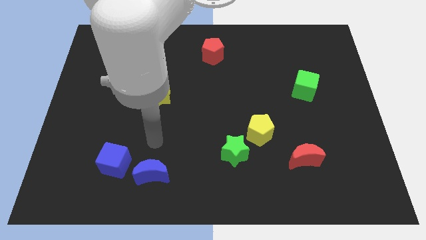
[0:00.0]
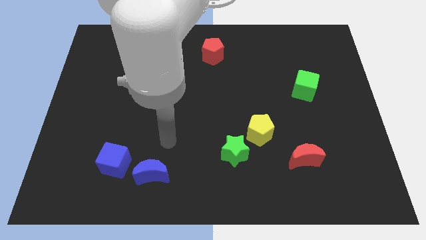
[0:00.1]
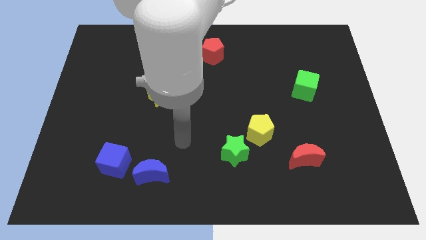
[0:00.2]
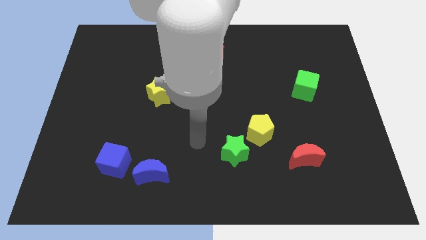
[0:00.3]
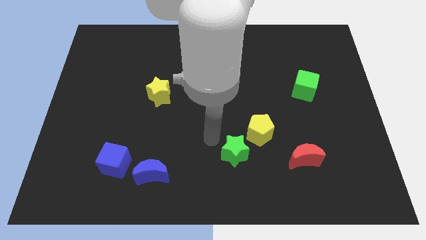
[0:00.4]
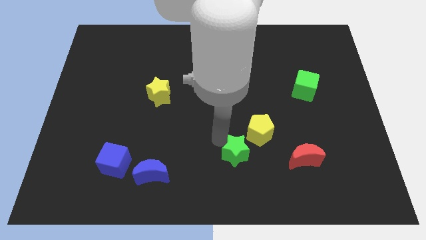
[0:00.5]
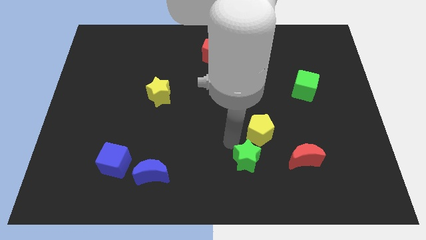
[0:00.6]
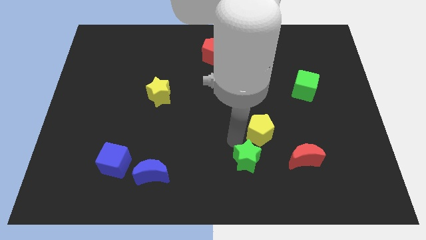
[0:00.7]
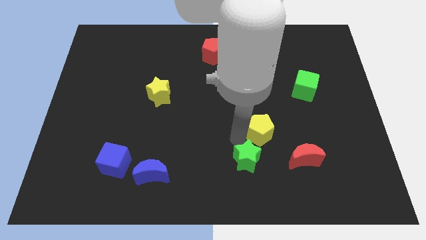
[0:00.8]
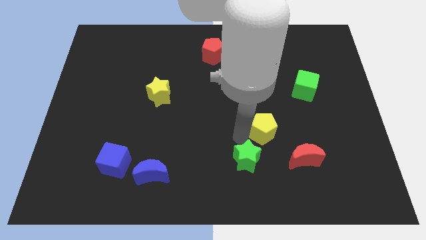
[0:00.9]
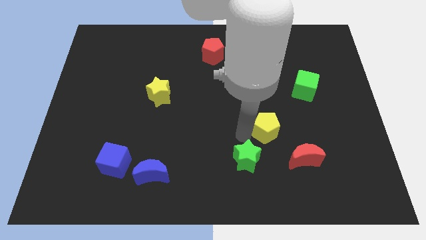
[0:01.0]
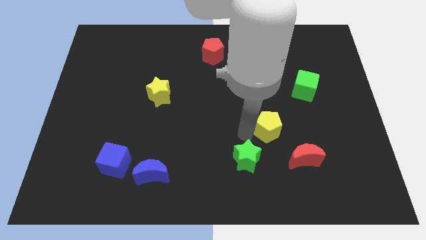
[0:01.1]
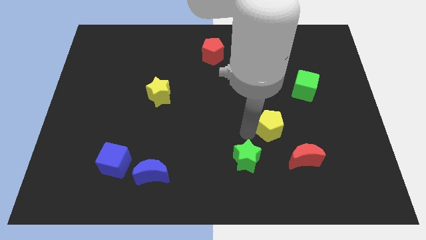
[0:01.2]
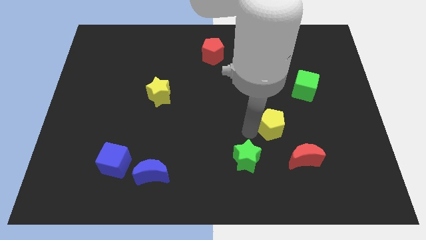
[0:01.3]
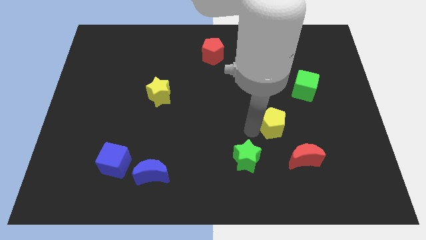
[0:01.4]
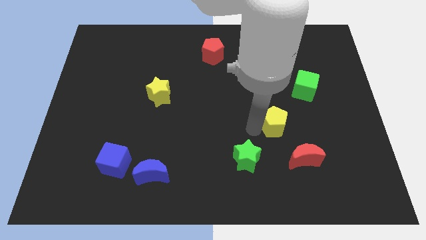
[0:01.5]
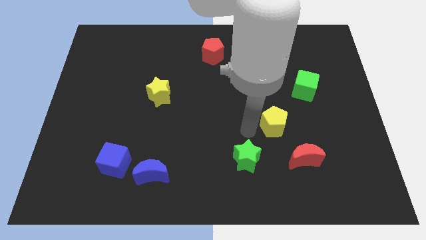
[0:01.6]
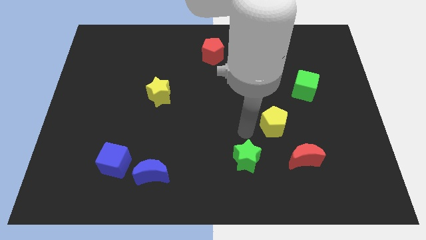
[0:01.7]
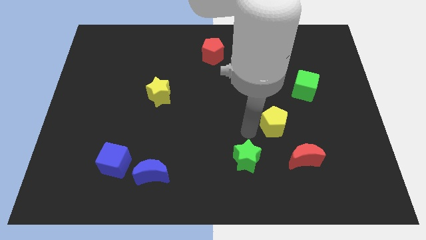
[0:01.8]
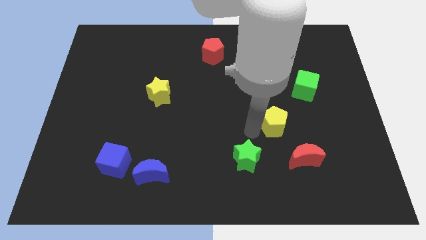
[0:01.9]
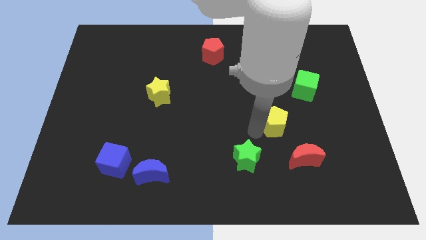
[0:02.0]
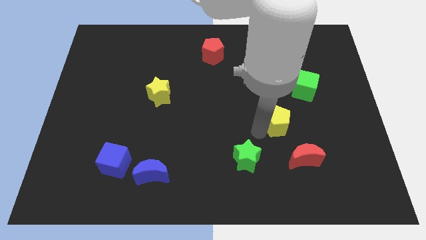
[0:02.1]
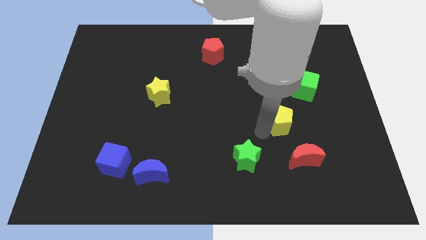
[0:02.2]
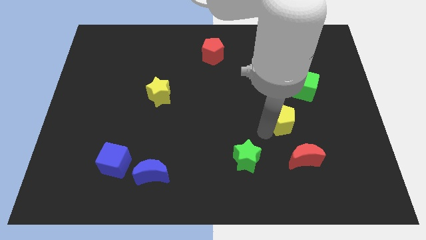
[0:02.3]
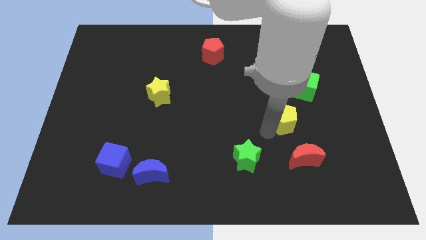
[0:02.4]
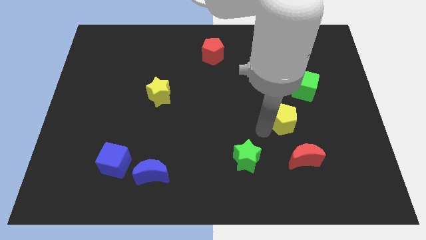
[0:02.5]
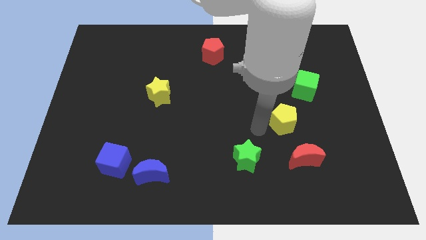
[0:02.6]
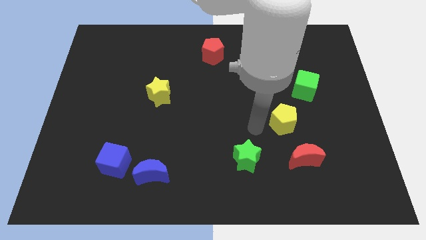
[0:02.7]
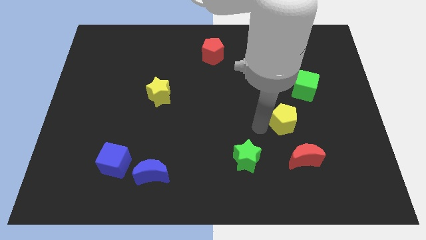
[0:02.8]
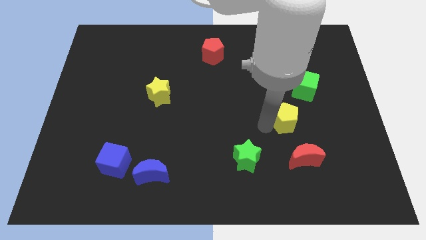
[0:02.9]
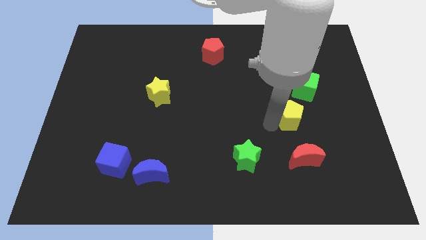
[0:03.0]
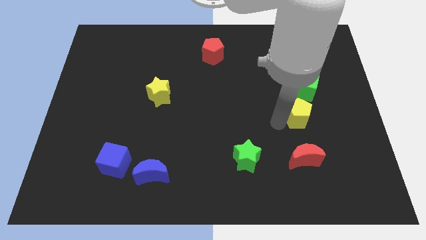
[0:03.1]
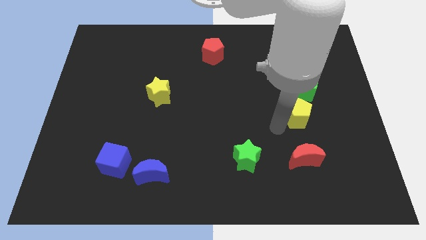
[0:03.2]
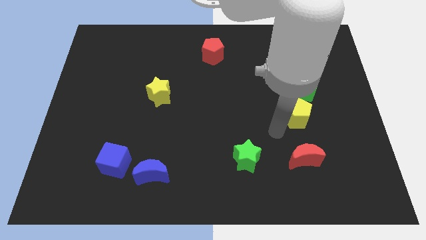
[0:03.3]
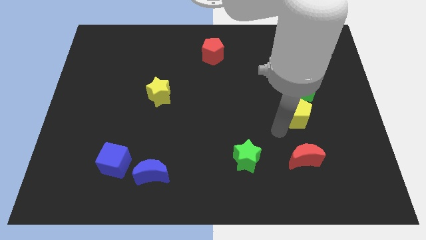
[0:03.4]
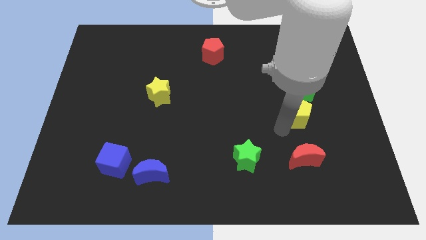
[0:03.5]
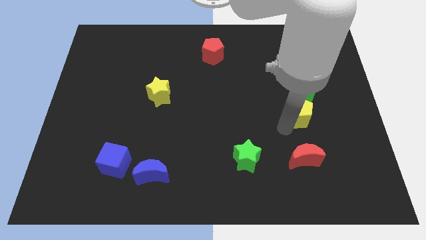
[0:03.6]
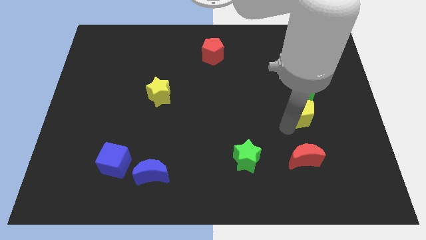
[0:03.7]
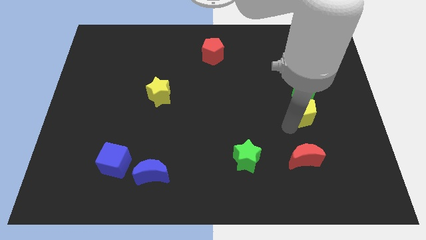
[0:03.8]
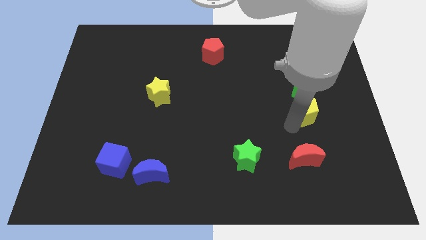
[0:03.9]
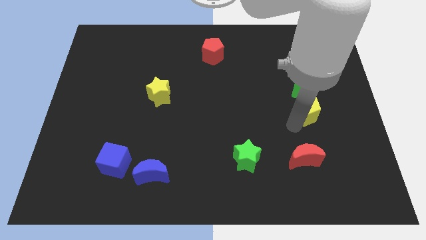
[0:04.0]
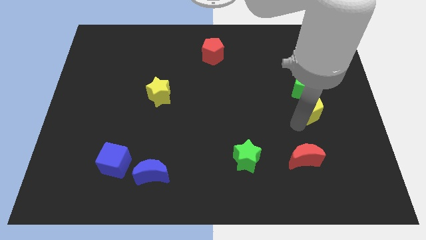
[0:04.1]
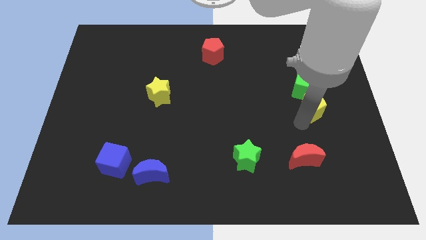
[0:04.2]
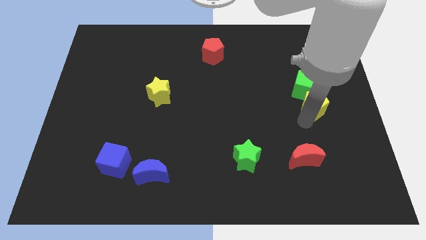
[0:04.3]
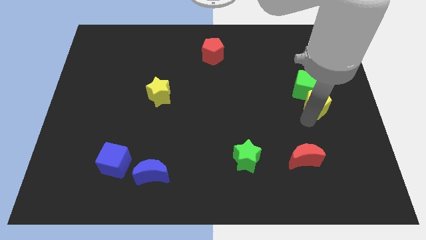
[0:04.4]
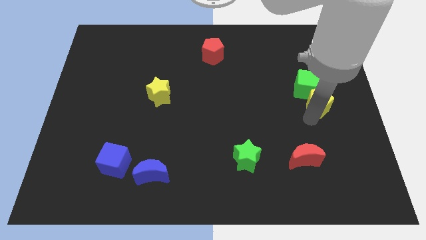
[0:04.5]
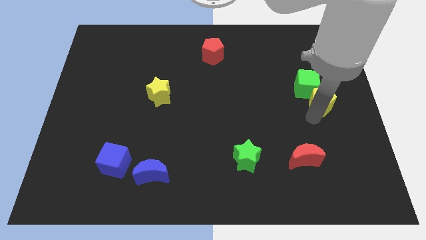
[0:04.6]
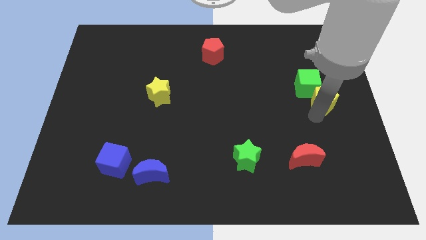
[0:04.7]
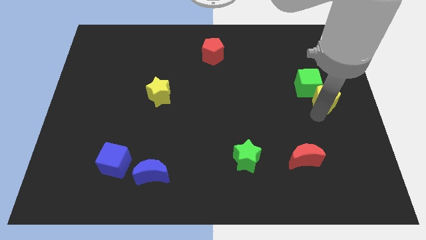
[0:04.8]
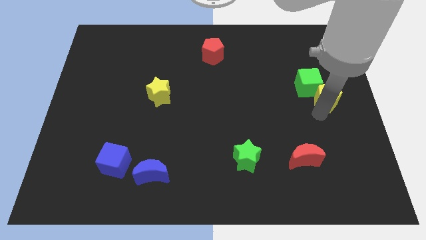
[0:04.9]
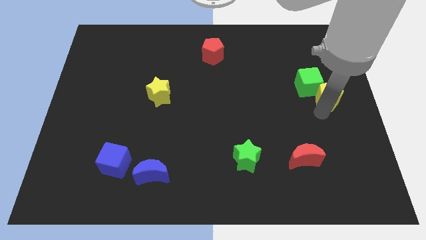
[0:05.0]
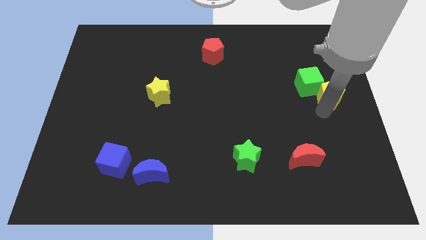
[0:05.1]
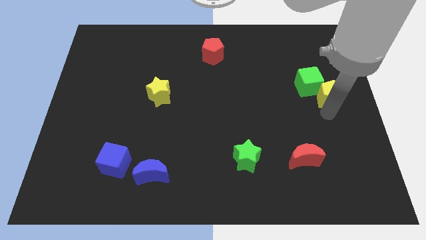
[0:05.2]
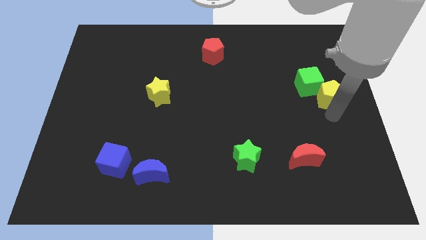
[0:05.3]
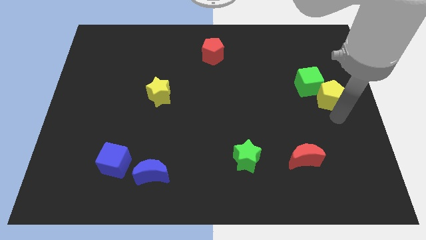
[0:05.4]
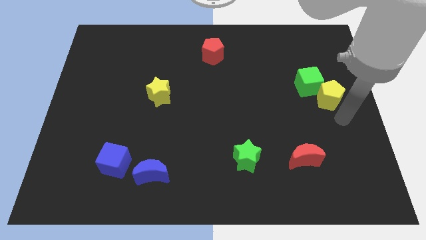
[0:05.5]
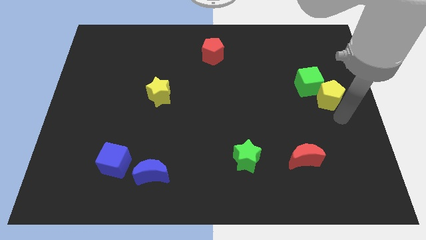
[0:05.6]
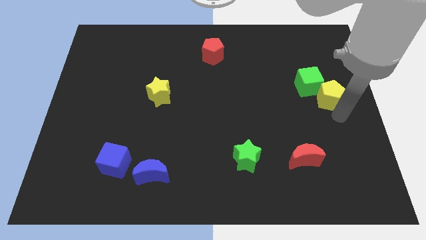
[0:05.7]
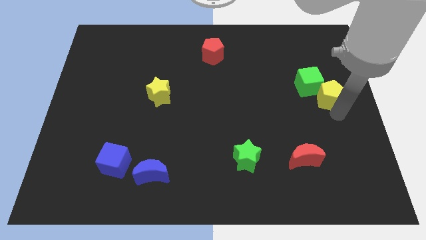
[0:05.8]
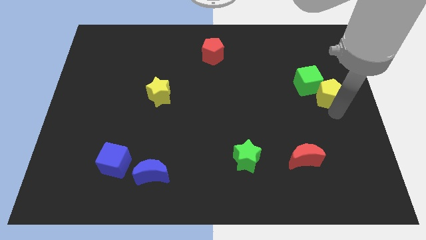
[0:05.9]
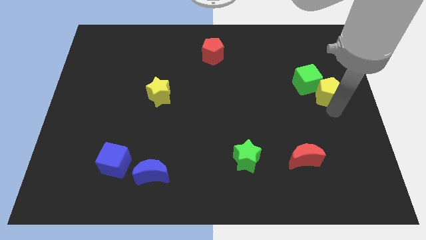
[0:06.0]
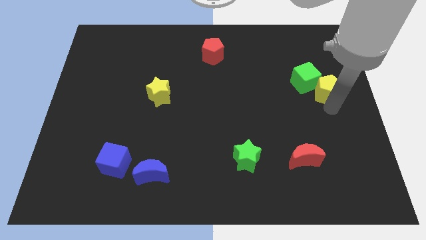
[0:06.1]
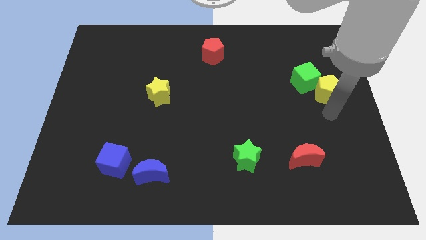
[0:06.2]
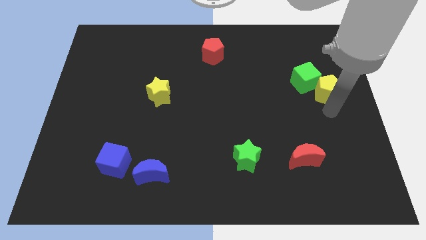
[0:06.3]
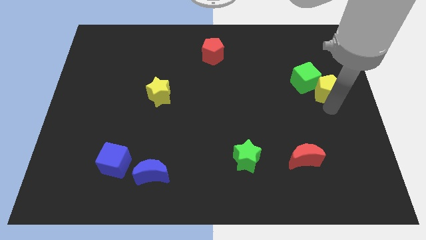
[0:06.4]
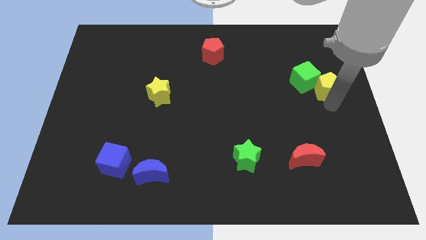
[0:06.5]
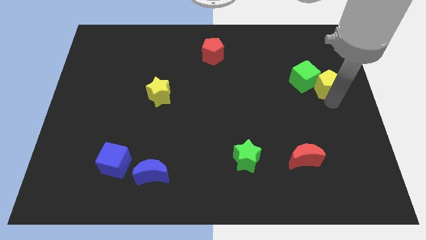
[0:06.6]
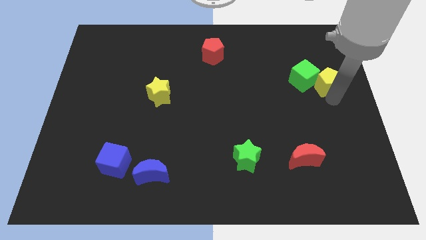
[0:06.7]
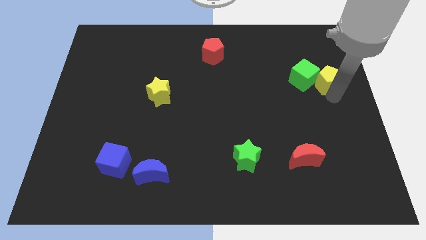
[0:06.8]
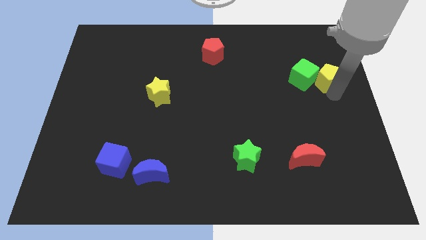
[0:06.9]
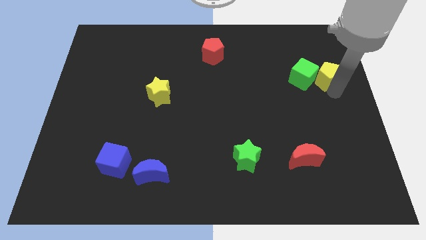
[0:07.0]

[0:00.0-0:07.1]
put the yellow pentagon diagonally up and to the right of the green cube
